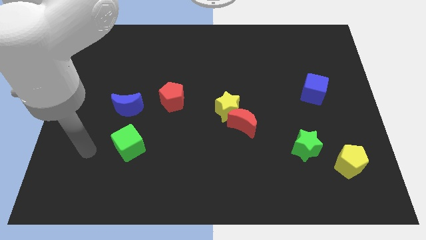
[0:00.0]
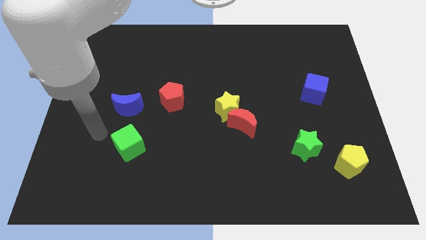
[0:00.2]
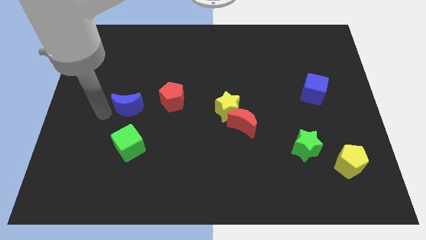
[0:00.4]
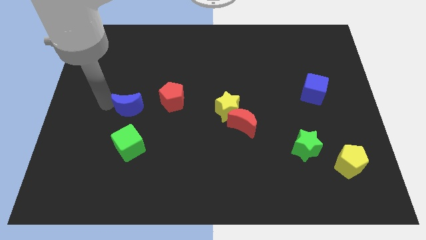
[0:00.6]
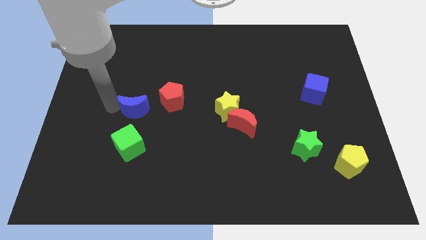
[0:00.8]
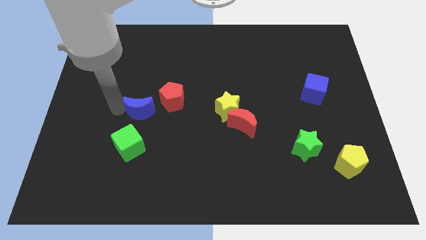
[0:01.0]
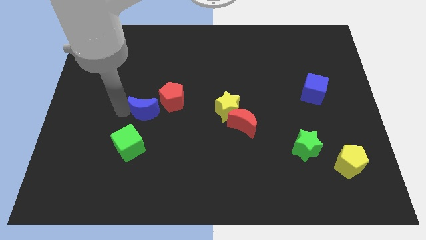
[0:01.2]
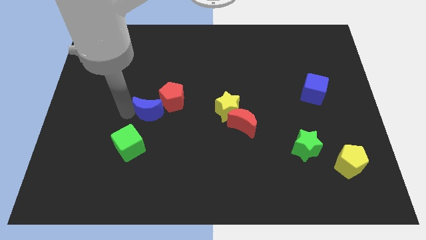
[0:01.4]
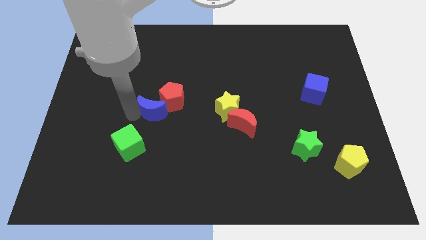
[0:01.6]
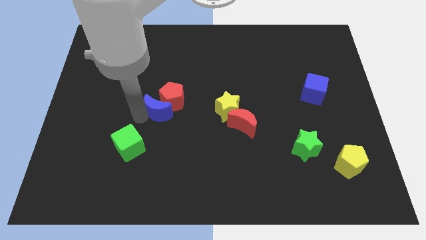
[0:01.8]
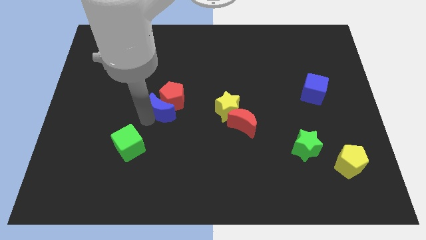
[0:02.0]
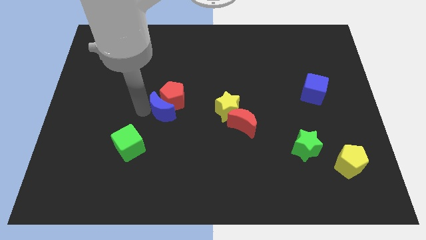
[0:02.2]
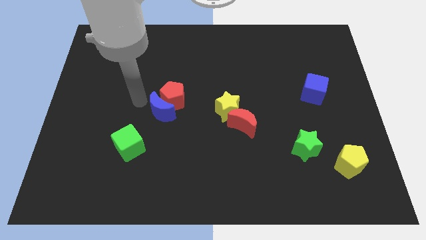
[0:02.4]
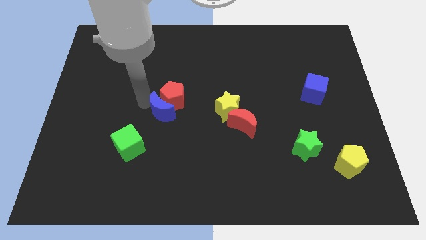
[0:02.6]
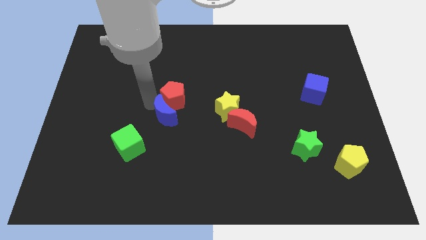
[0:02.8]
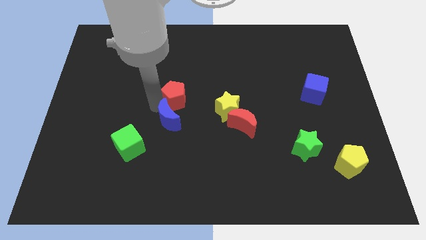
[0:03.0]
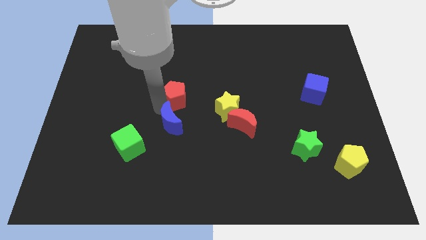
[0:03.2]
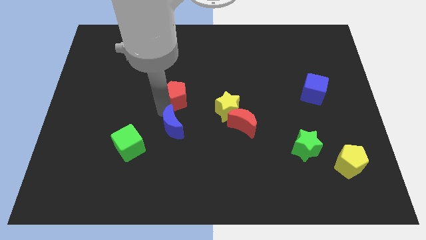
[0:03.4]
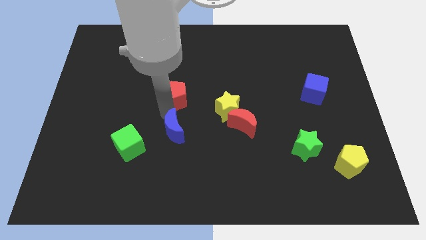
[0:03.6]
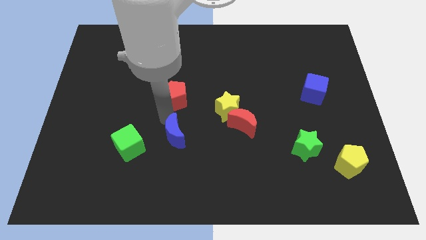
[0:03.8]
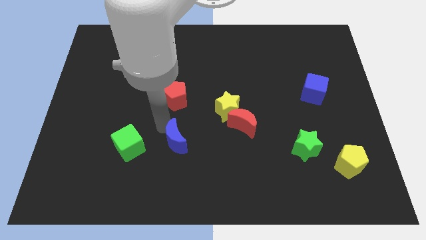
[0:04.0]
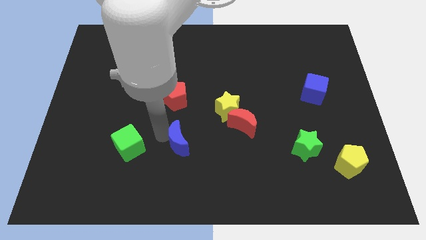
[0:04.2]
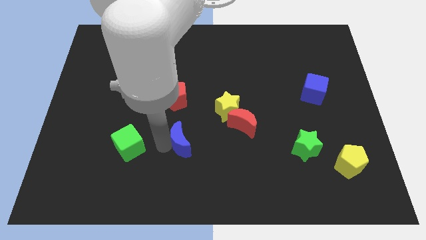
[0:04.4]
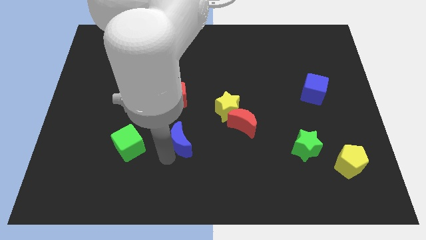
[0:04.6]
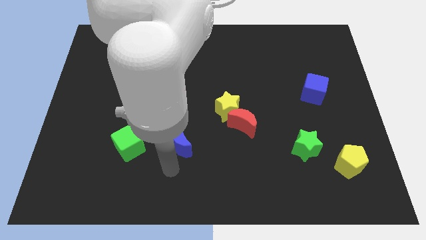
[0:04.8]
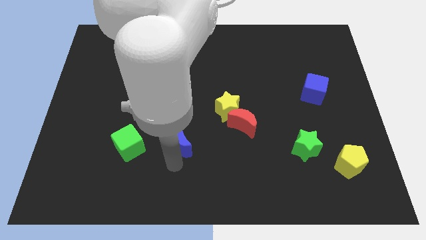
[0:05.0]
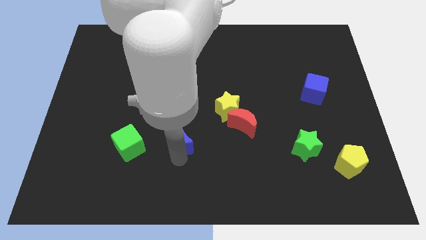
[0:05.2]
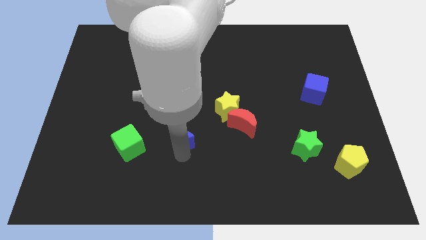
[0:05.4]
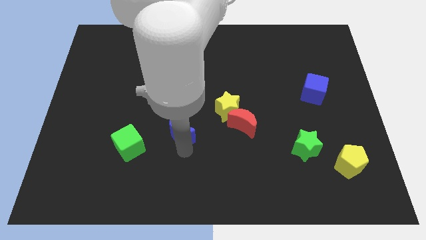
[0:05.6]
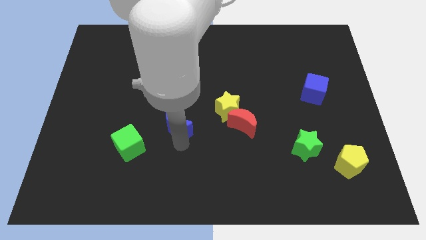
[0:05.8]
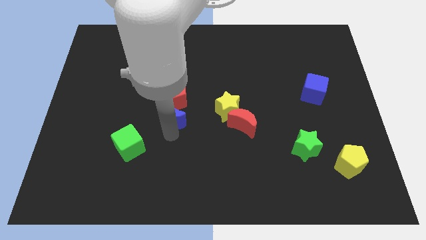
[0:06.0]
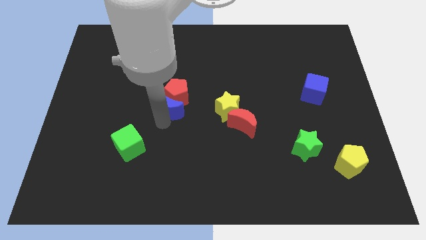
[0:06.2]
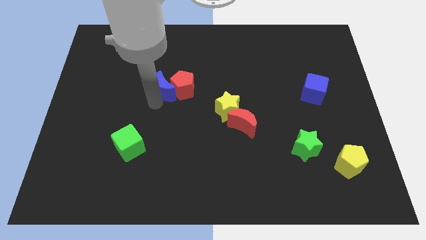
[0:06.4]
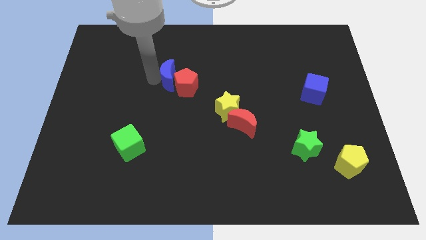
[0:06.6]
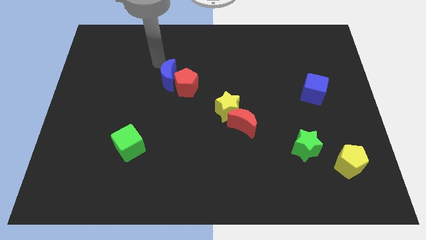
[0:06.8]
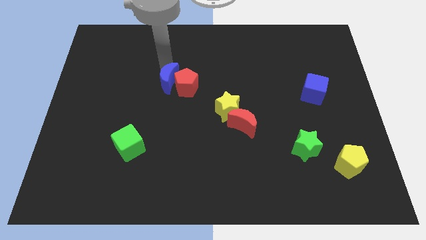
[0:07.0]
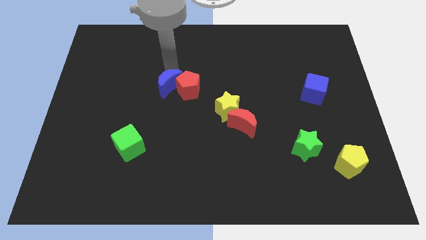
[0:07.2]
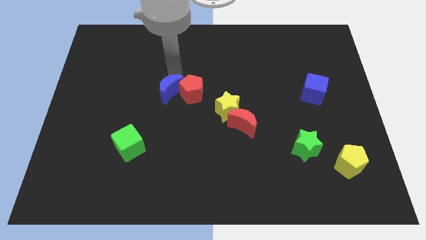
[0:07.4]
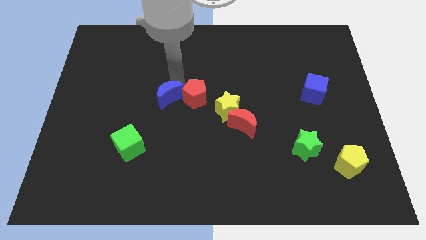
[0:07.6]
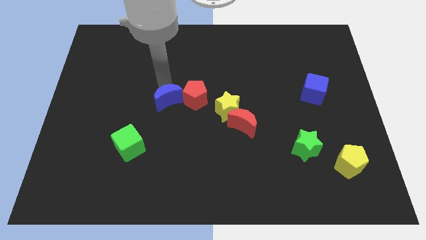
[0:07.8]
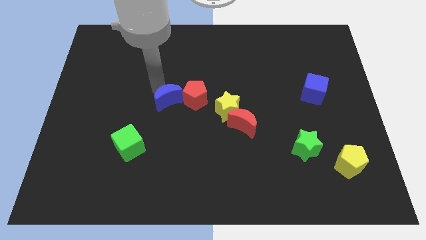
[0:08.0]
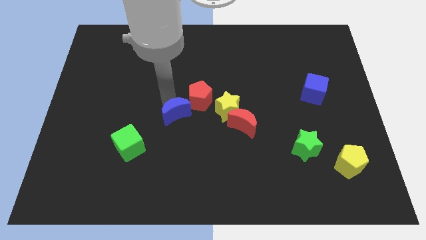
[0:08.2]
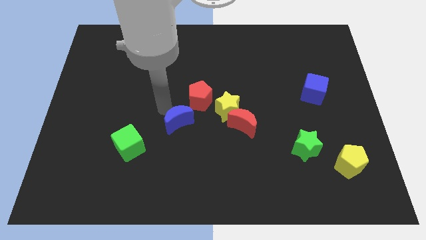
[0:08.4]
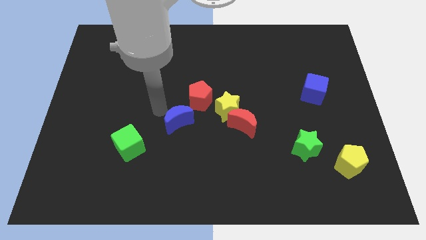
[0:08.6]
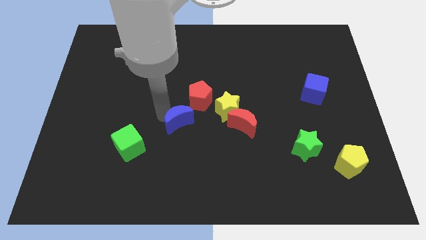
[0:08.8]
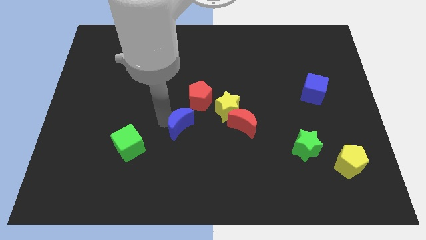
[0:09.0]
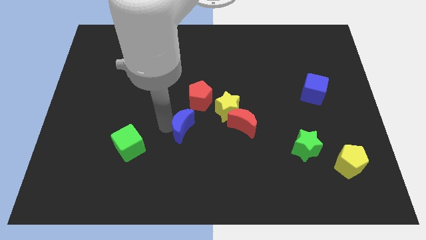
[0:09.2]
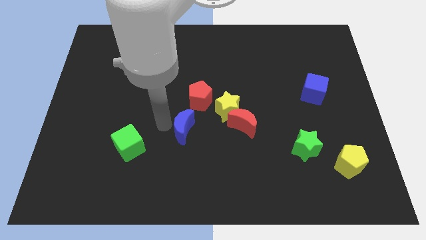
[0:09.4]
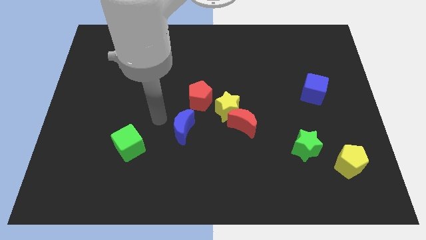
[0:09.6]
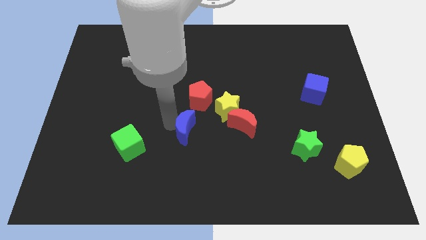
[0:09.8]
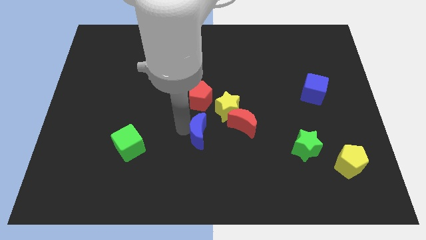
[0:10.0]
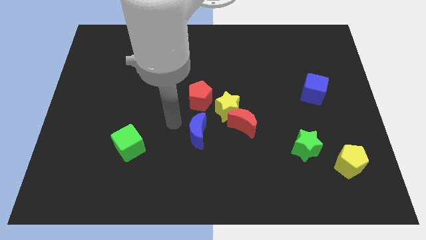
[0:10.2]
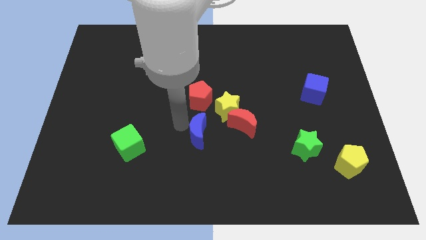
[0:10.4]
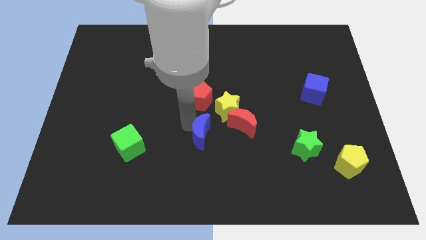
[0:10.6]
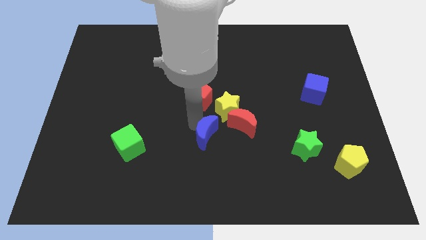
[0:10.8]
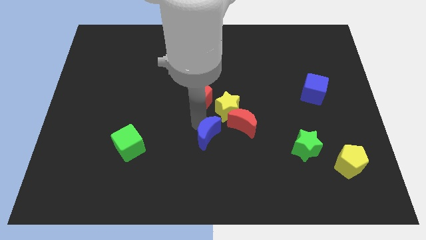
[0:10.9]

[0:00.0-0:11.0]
slide the blue moon to the bottom of the yellow star

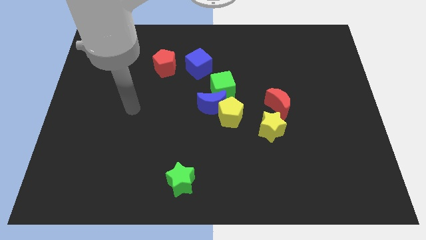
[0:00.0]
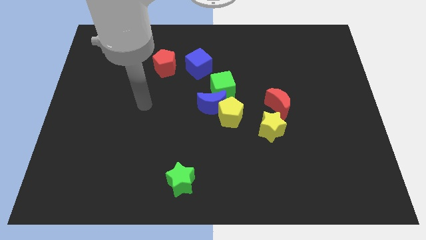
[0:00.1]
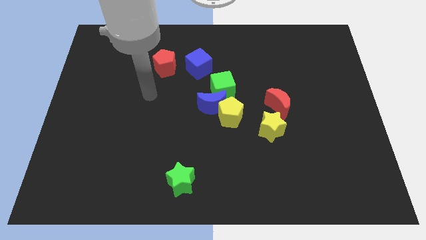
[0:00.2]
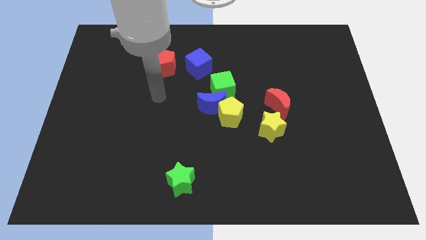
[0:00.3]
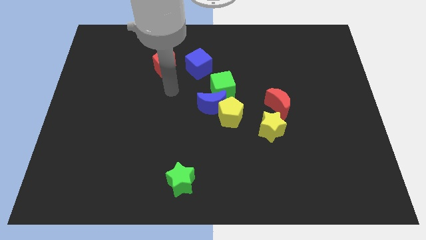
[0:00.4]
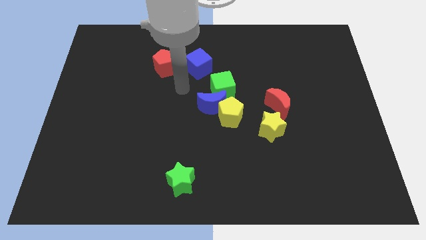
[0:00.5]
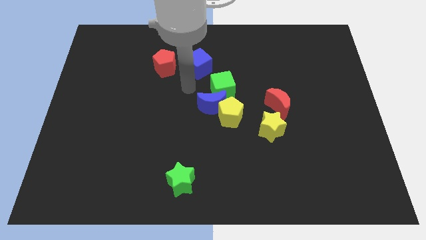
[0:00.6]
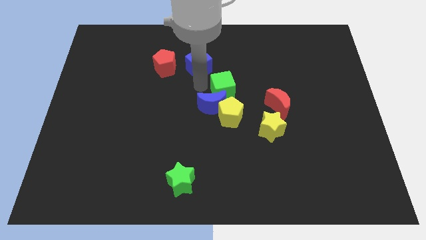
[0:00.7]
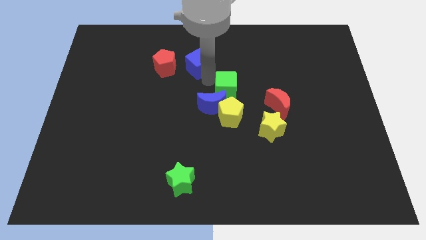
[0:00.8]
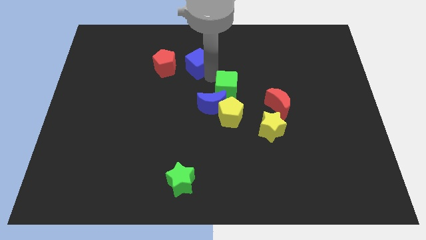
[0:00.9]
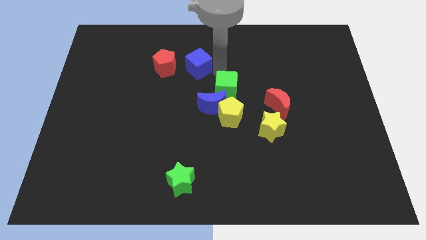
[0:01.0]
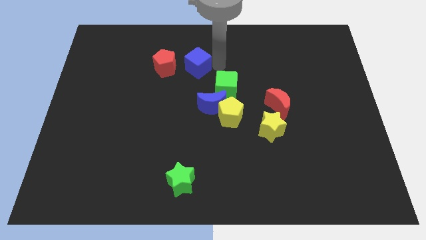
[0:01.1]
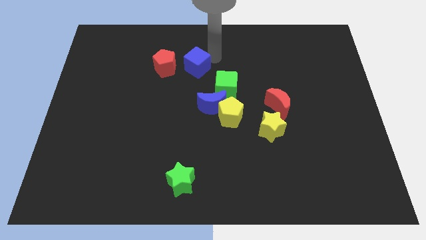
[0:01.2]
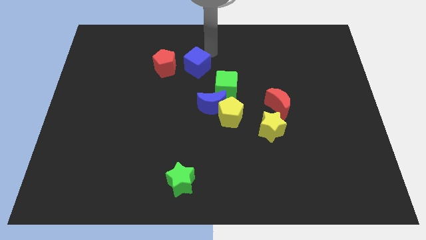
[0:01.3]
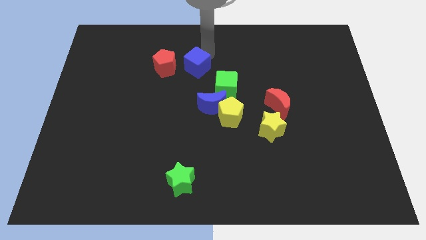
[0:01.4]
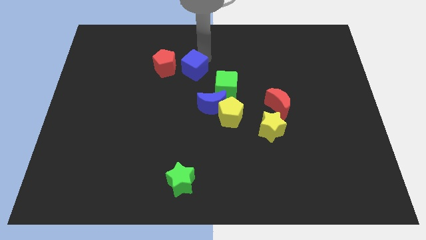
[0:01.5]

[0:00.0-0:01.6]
move the blue cube to the bottom right side of the red pentagon
